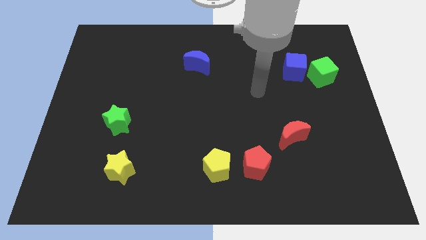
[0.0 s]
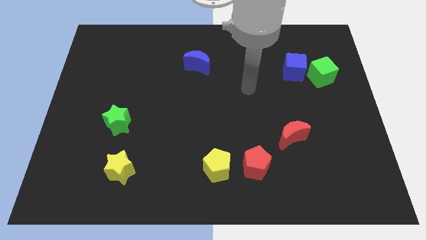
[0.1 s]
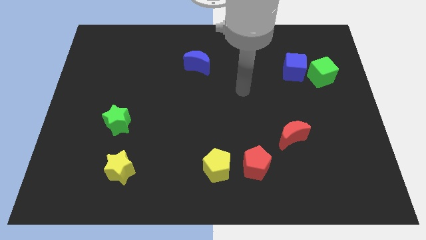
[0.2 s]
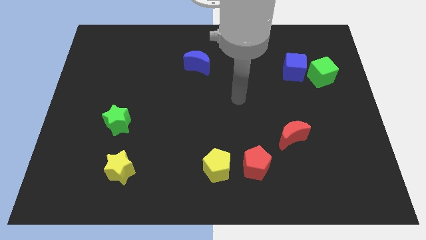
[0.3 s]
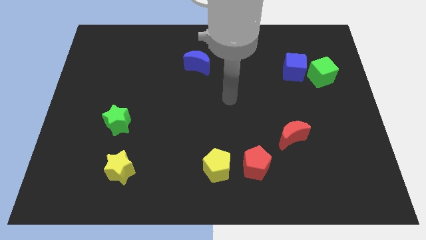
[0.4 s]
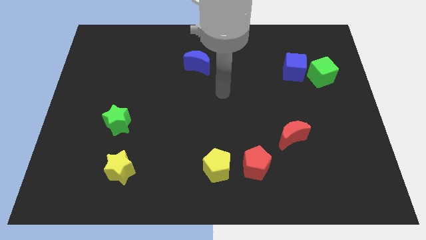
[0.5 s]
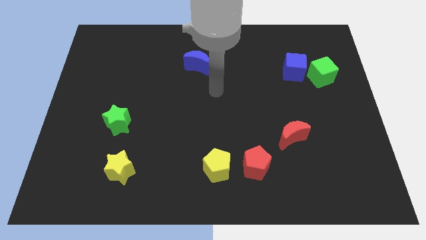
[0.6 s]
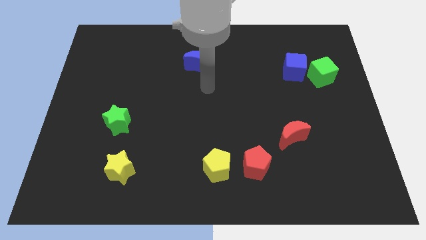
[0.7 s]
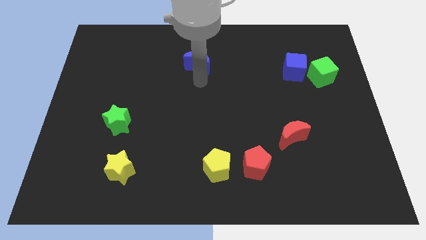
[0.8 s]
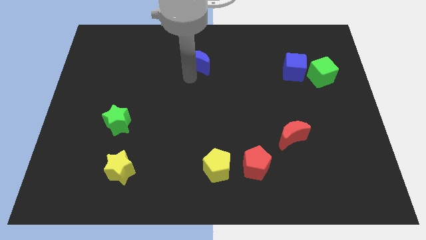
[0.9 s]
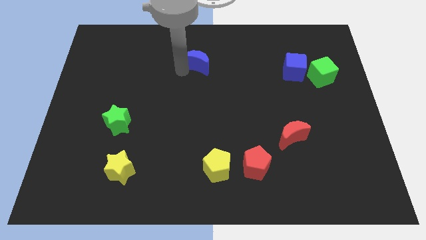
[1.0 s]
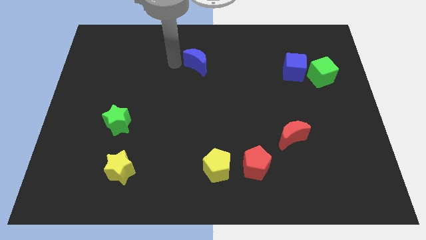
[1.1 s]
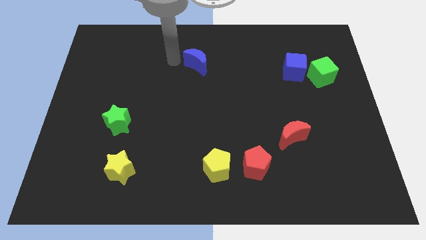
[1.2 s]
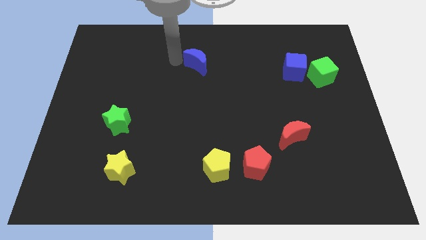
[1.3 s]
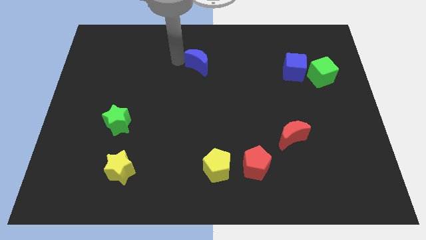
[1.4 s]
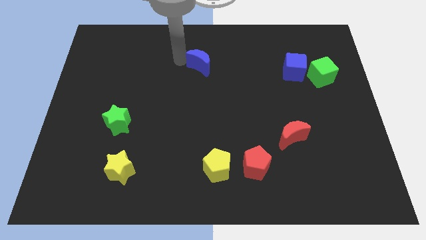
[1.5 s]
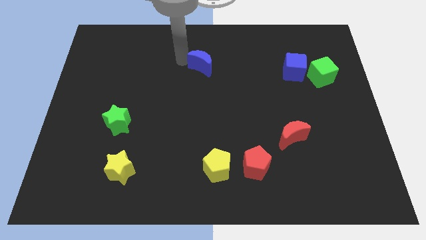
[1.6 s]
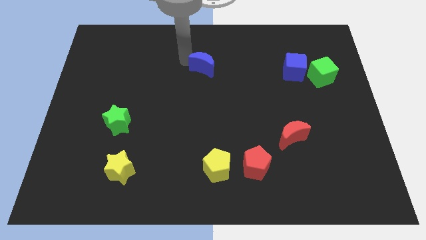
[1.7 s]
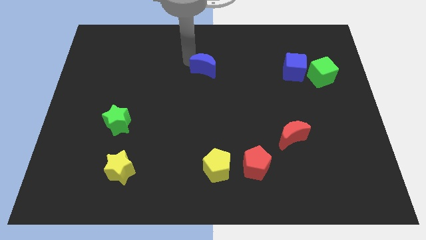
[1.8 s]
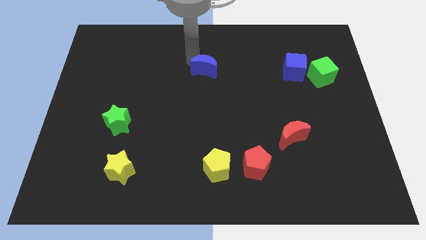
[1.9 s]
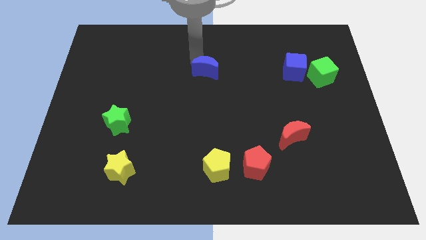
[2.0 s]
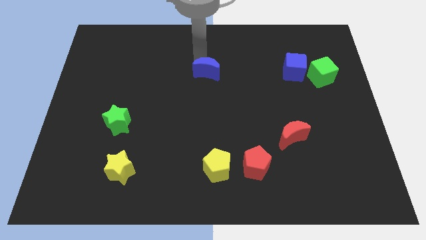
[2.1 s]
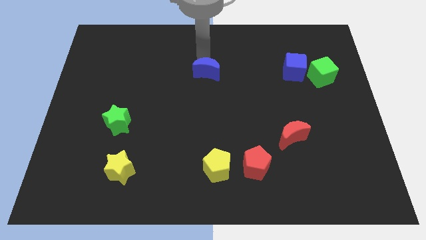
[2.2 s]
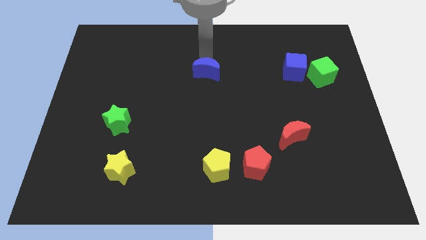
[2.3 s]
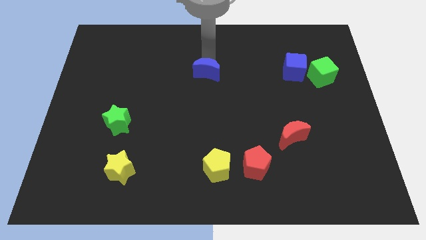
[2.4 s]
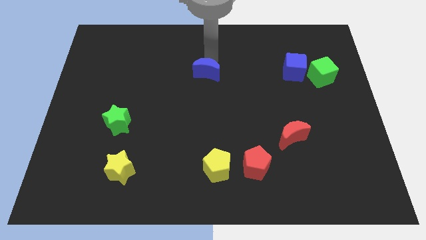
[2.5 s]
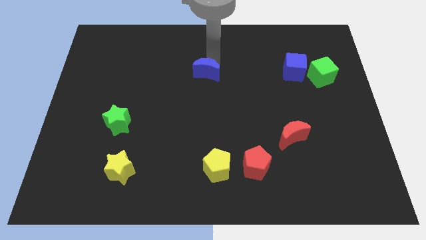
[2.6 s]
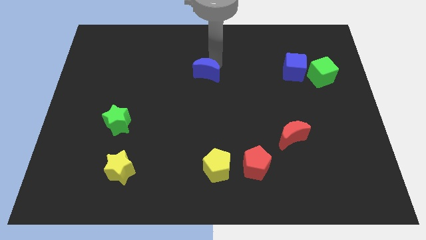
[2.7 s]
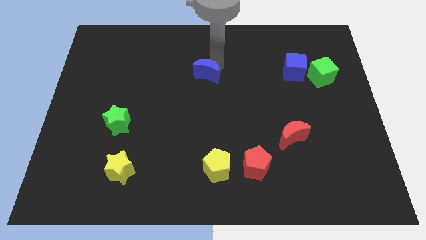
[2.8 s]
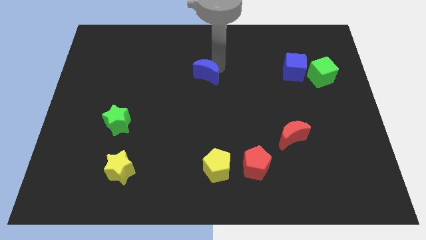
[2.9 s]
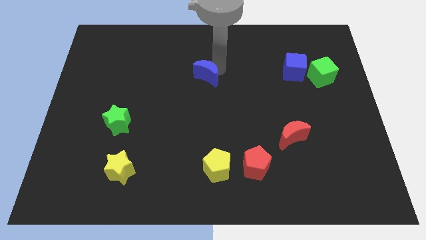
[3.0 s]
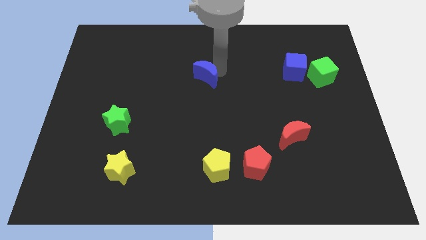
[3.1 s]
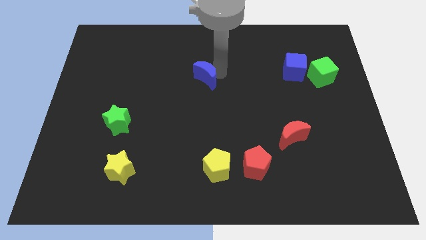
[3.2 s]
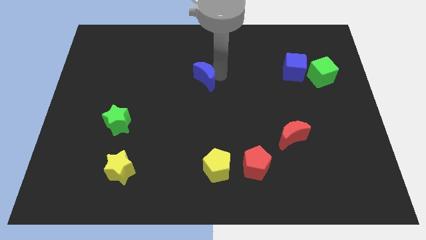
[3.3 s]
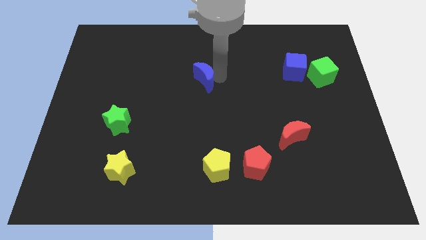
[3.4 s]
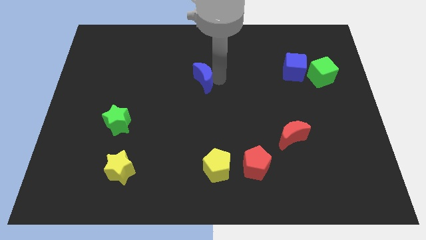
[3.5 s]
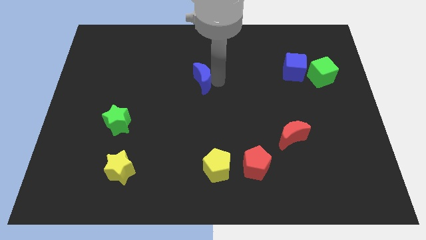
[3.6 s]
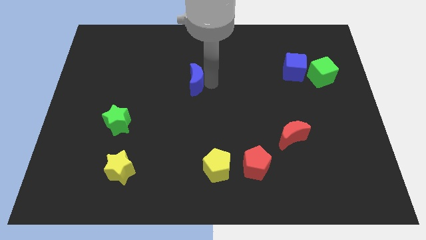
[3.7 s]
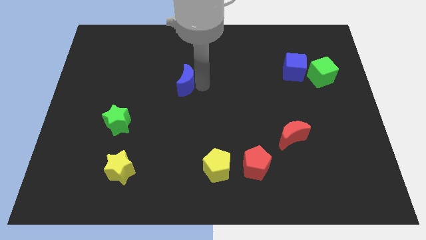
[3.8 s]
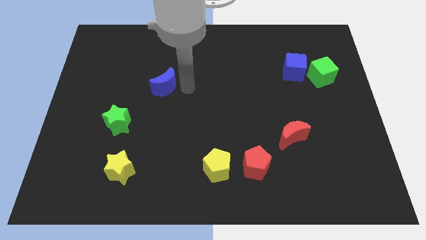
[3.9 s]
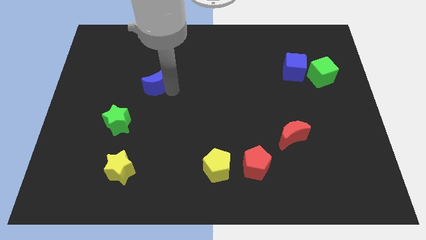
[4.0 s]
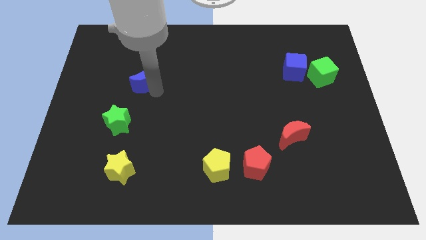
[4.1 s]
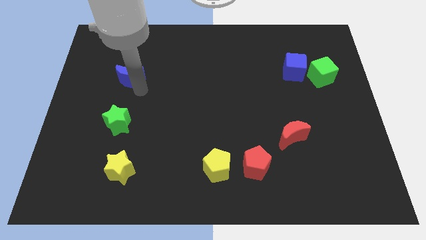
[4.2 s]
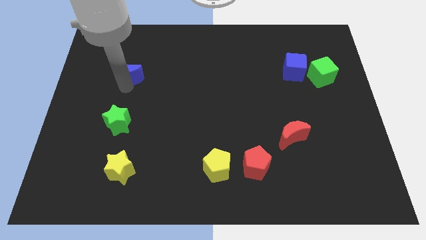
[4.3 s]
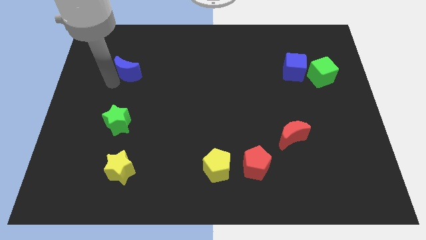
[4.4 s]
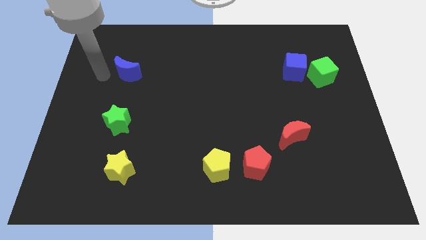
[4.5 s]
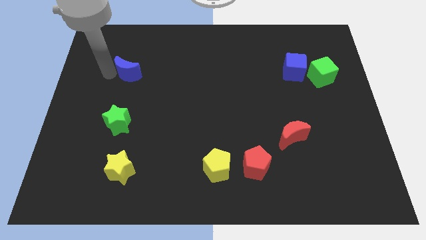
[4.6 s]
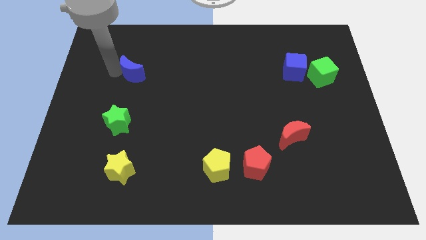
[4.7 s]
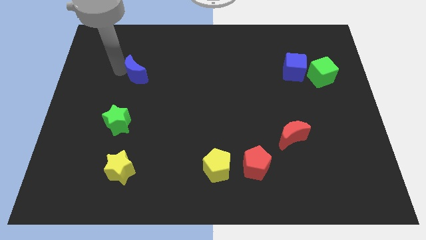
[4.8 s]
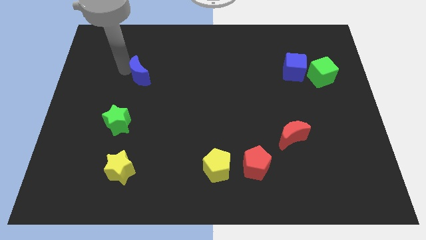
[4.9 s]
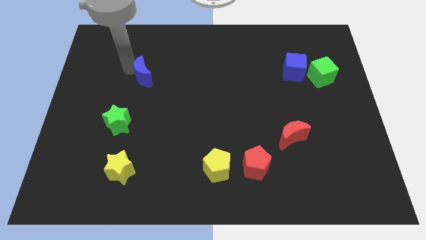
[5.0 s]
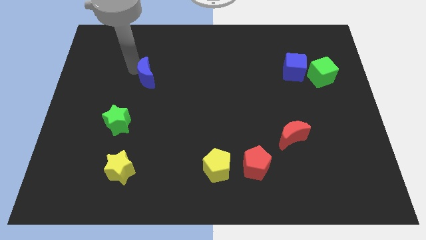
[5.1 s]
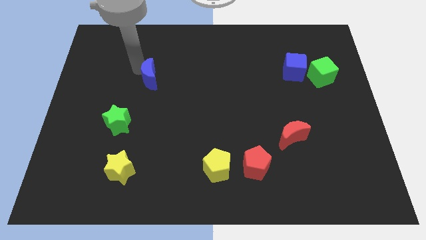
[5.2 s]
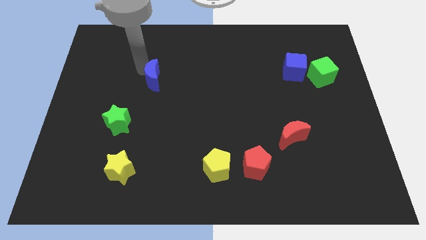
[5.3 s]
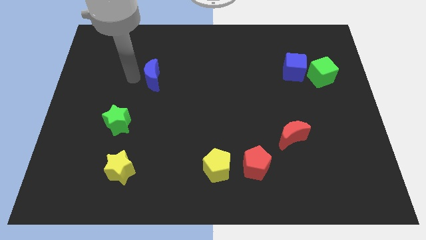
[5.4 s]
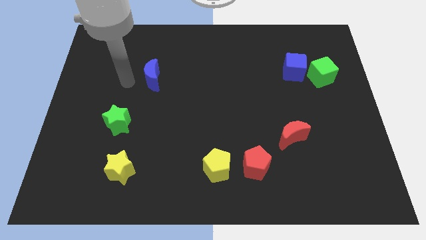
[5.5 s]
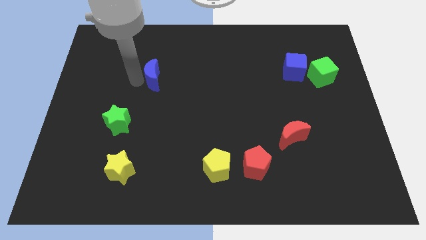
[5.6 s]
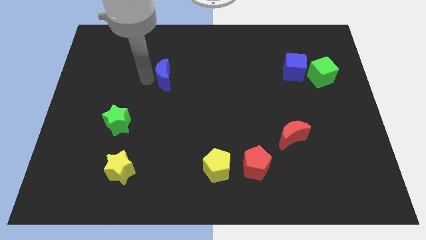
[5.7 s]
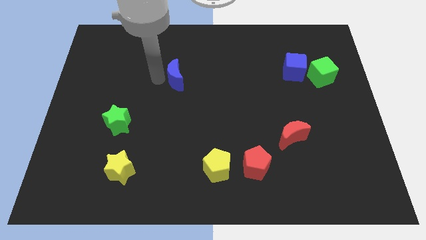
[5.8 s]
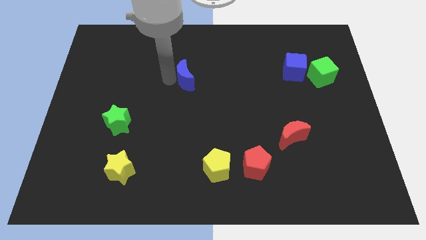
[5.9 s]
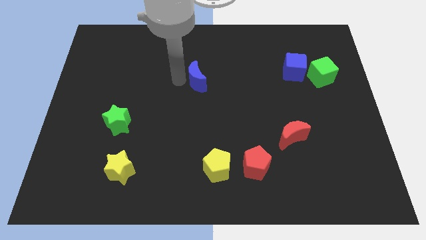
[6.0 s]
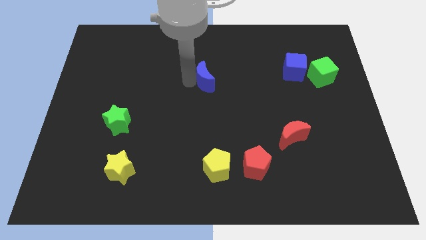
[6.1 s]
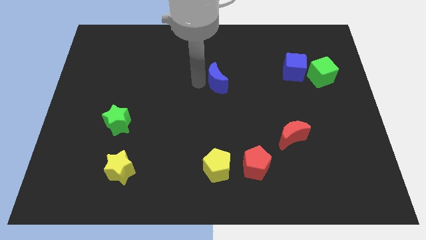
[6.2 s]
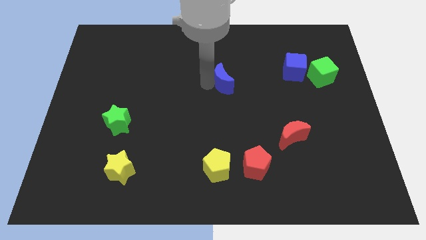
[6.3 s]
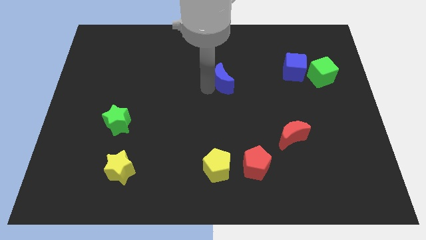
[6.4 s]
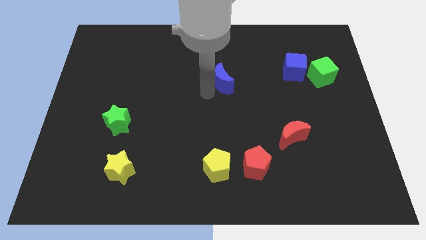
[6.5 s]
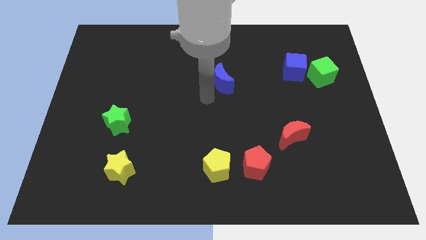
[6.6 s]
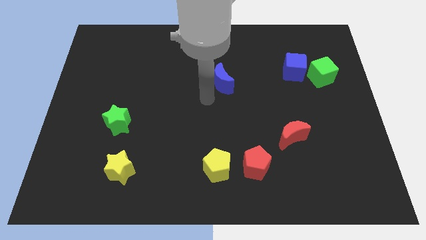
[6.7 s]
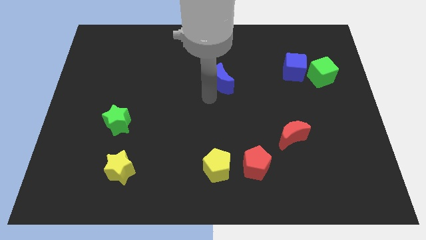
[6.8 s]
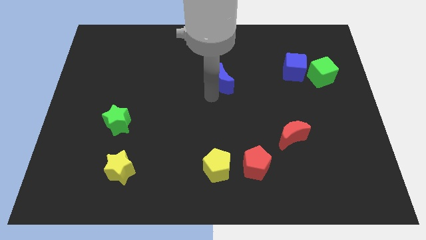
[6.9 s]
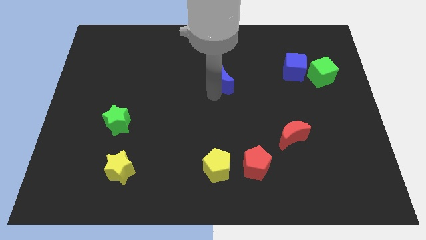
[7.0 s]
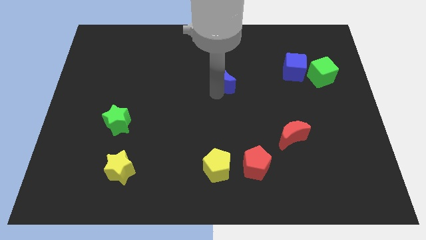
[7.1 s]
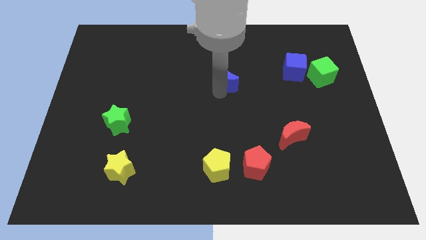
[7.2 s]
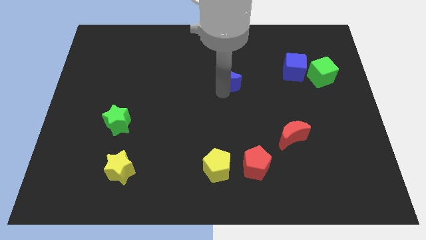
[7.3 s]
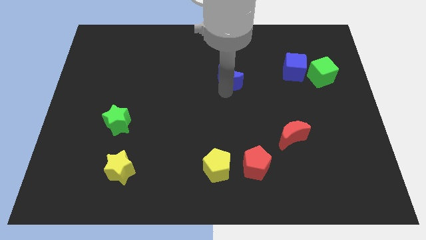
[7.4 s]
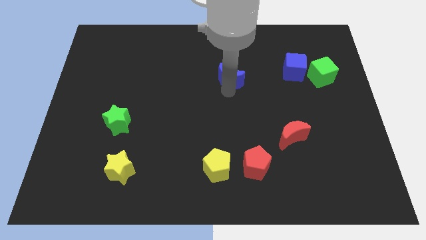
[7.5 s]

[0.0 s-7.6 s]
slide the blue moon slightly to the right

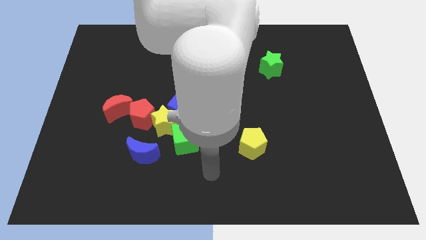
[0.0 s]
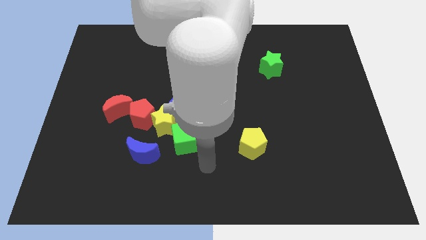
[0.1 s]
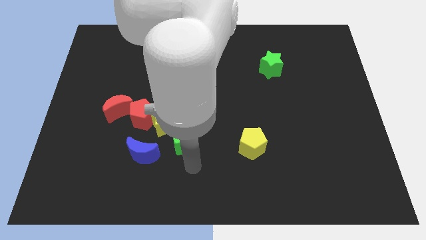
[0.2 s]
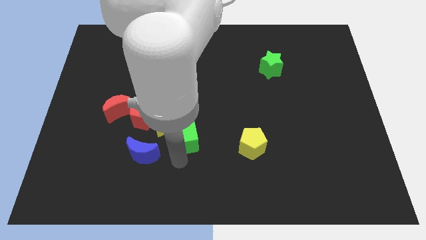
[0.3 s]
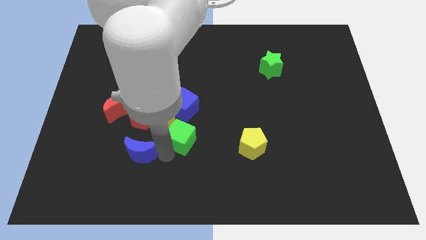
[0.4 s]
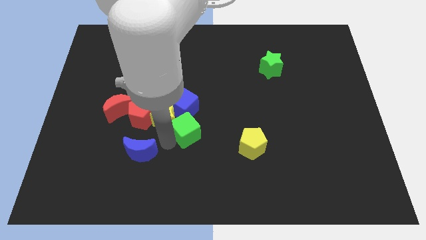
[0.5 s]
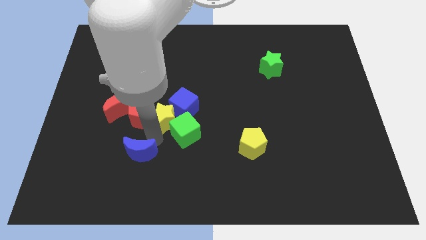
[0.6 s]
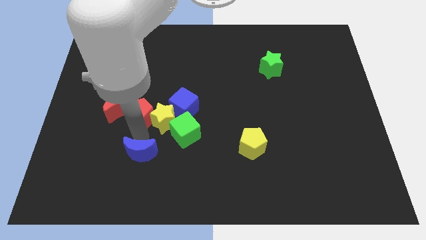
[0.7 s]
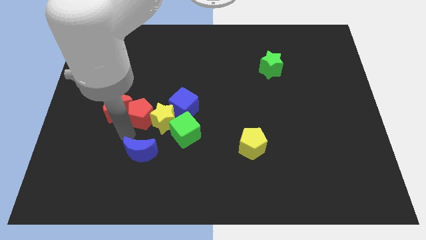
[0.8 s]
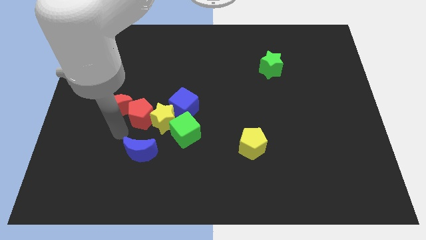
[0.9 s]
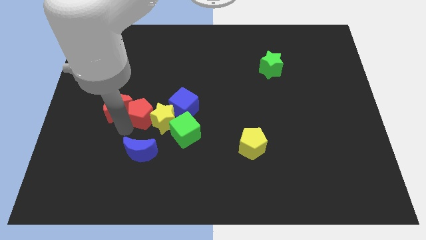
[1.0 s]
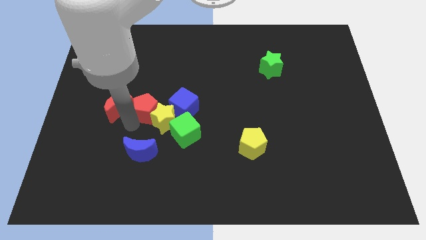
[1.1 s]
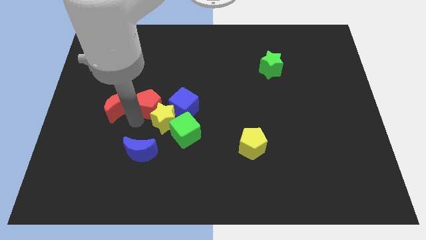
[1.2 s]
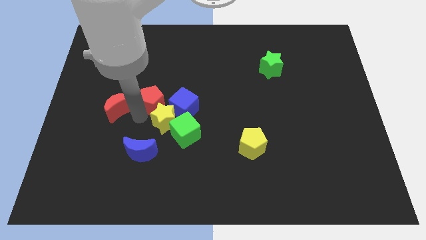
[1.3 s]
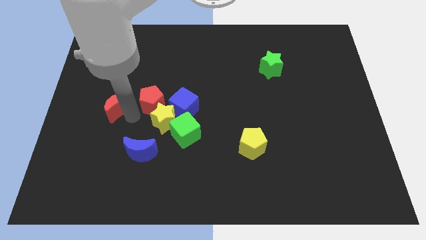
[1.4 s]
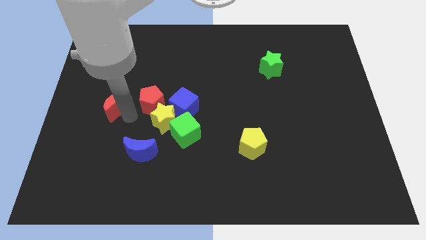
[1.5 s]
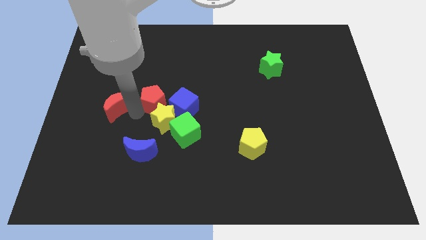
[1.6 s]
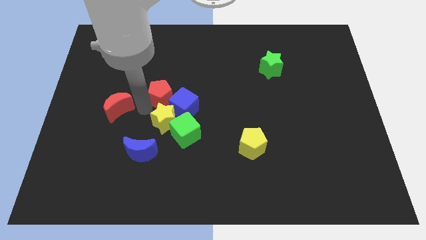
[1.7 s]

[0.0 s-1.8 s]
move the red pentagon upwards and right a little bit
